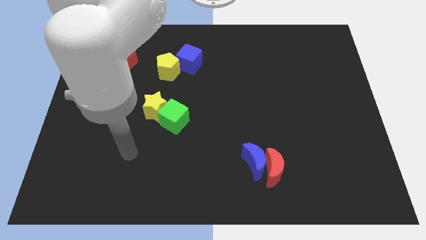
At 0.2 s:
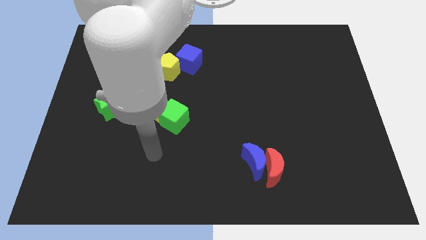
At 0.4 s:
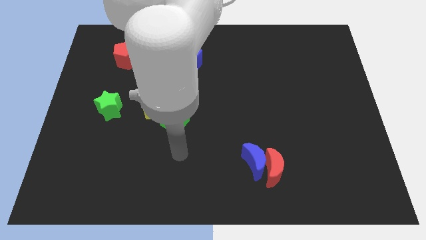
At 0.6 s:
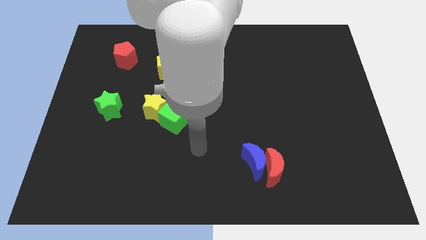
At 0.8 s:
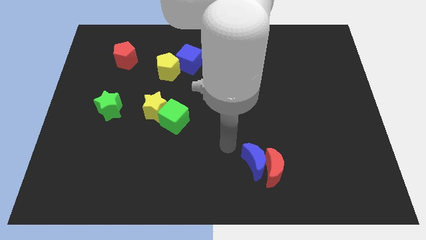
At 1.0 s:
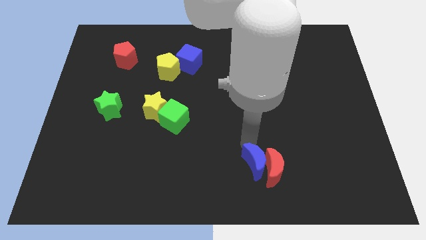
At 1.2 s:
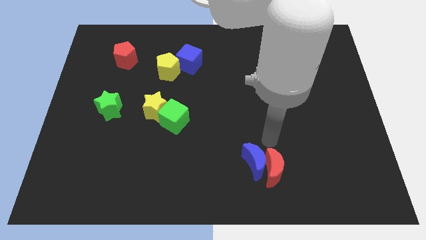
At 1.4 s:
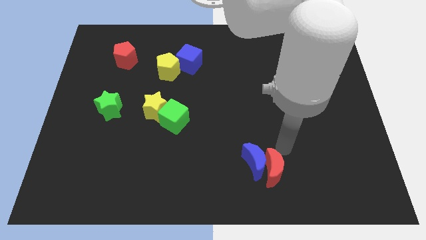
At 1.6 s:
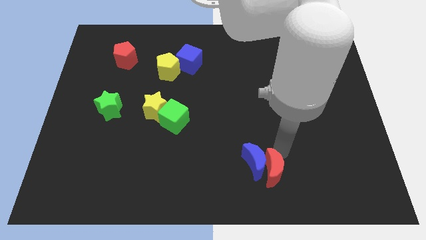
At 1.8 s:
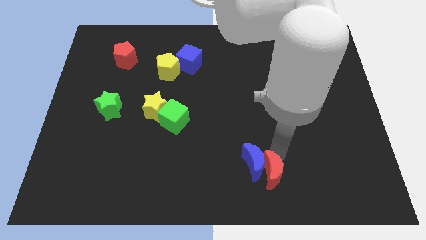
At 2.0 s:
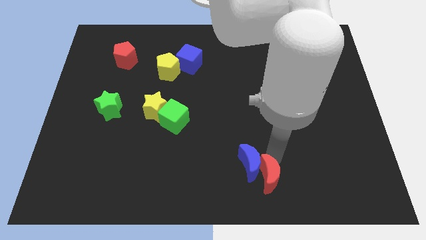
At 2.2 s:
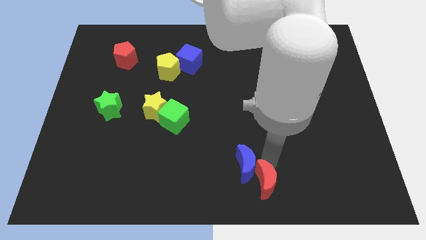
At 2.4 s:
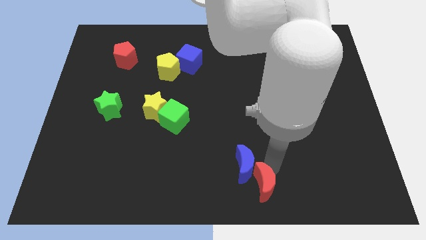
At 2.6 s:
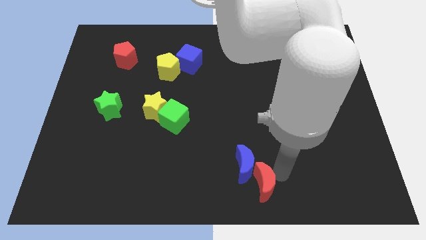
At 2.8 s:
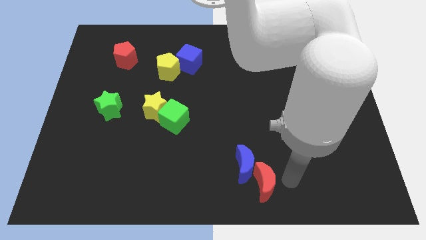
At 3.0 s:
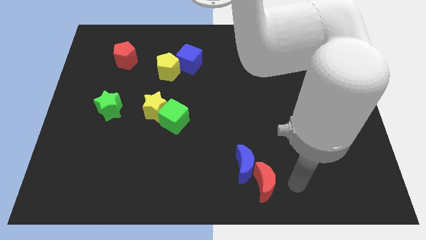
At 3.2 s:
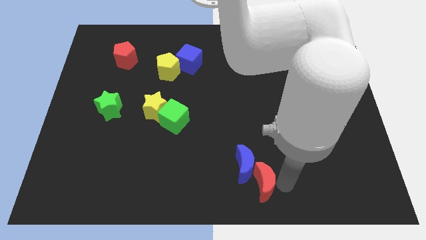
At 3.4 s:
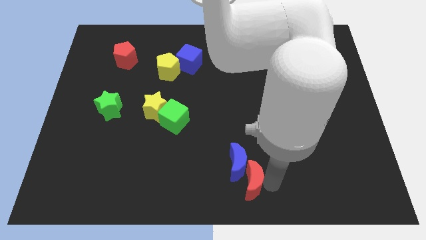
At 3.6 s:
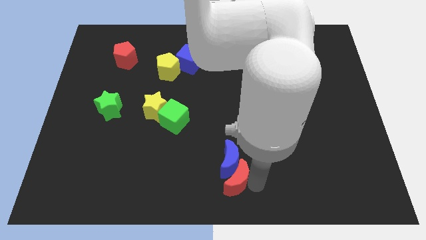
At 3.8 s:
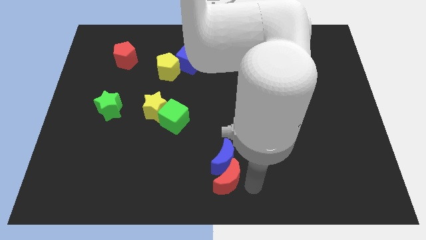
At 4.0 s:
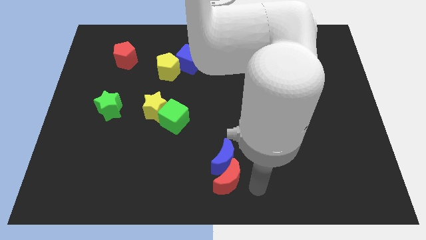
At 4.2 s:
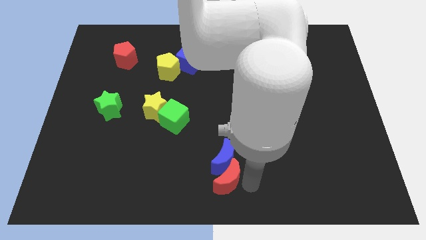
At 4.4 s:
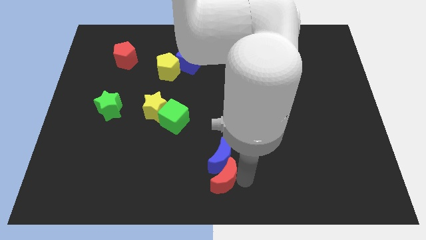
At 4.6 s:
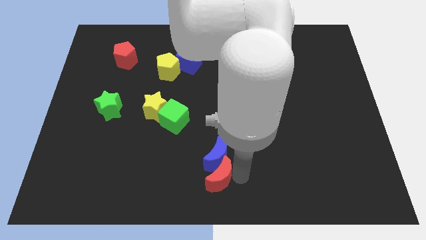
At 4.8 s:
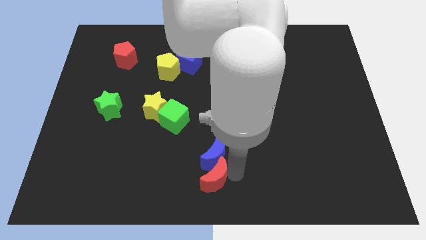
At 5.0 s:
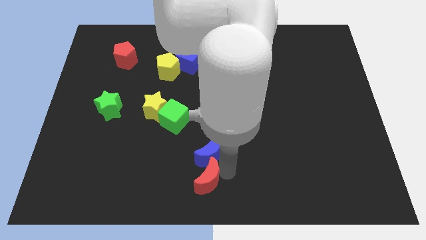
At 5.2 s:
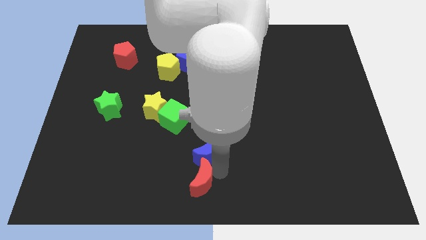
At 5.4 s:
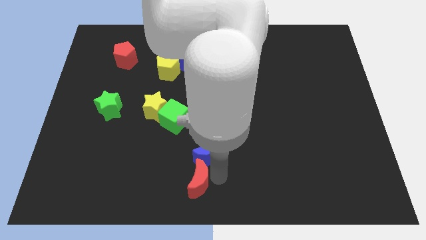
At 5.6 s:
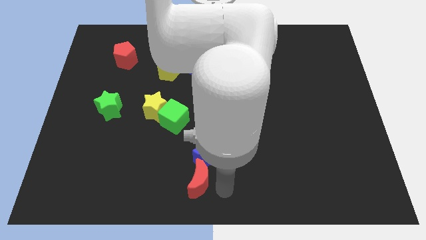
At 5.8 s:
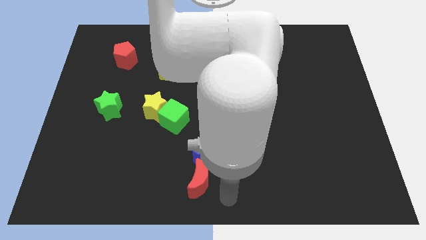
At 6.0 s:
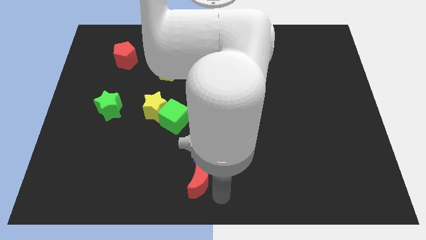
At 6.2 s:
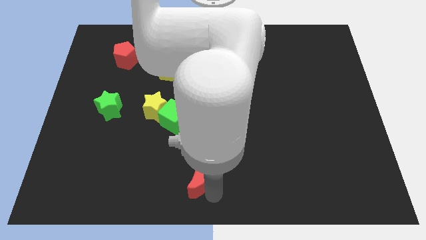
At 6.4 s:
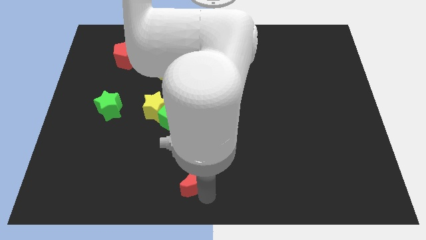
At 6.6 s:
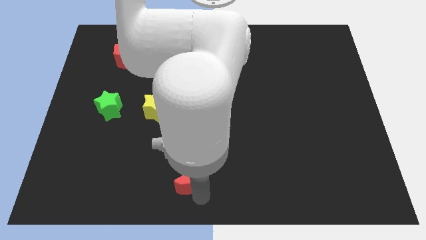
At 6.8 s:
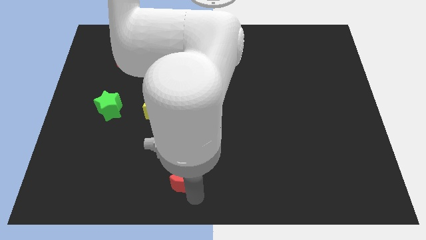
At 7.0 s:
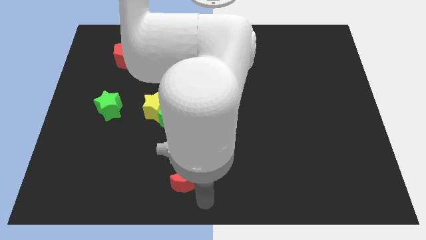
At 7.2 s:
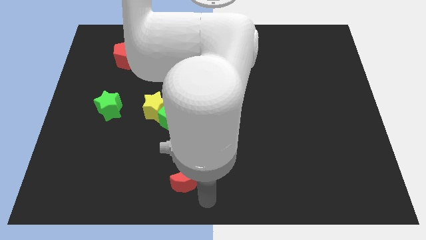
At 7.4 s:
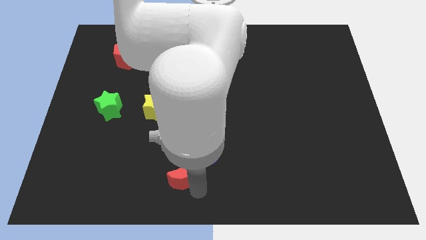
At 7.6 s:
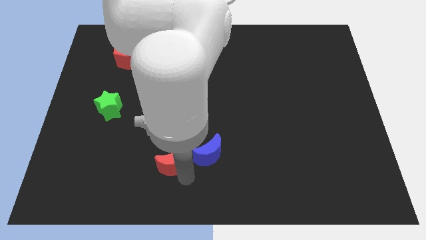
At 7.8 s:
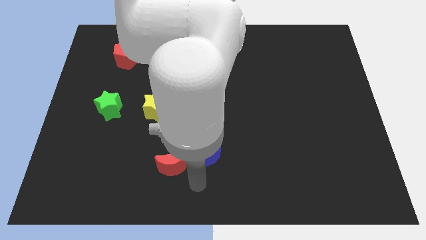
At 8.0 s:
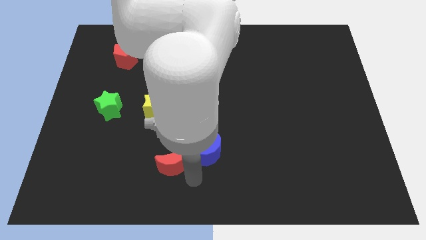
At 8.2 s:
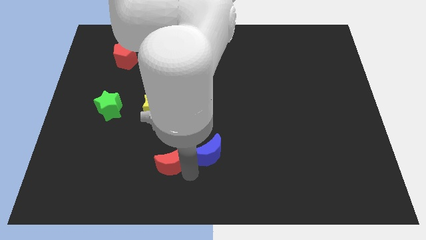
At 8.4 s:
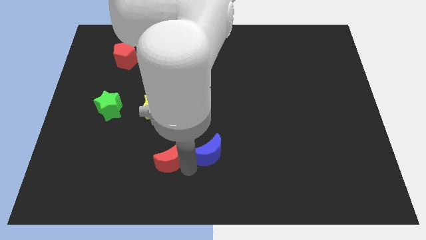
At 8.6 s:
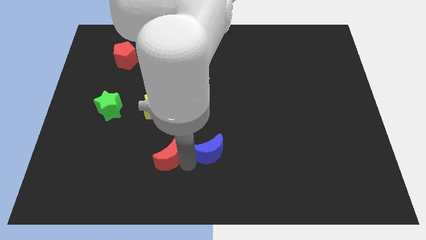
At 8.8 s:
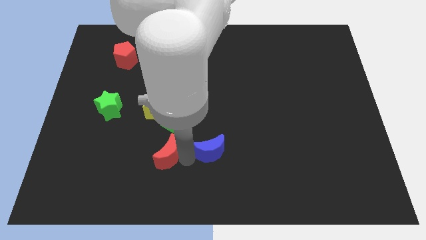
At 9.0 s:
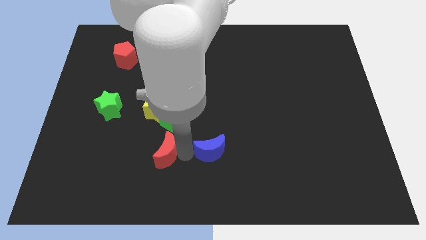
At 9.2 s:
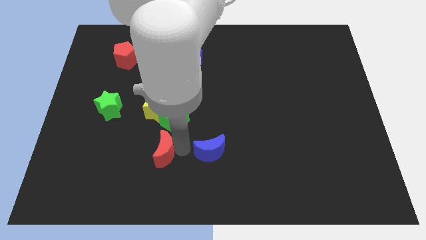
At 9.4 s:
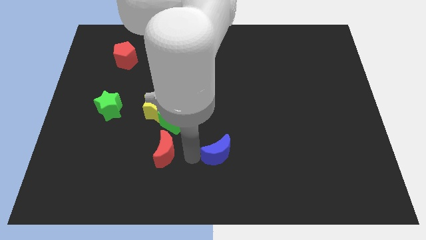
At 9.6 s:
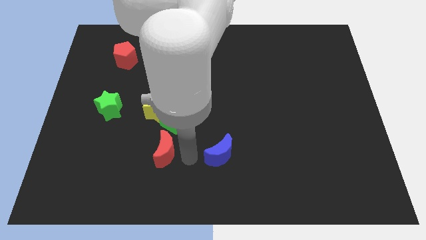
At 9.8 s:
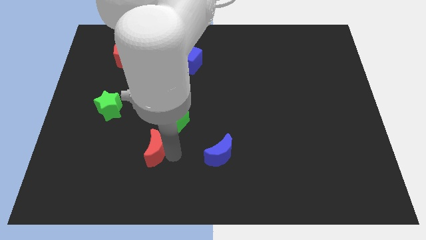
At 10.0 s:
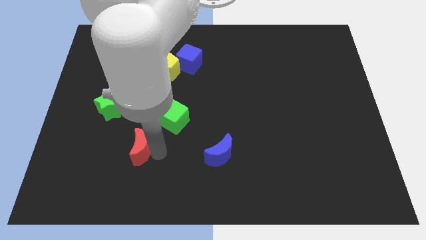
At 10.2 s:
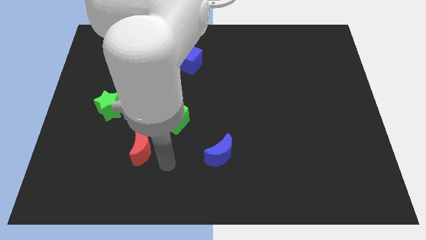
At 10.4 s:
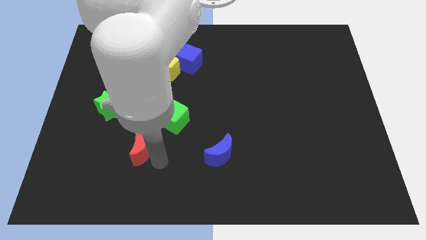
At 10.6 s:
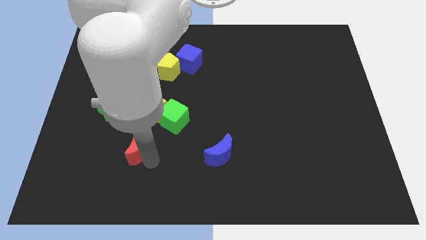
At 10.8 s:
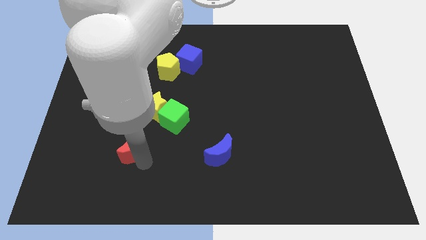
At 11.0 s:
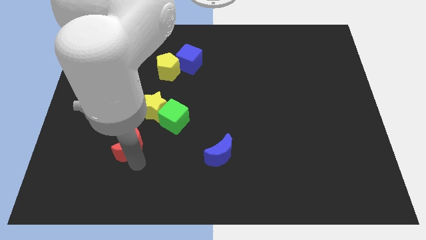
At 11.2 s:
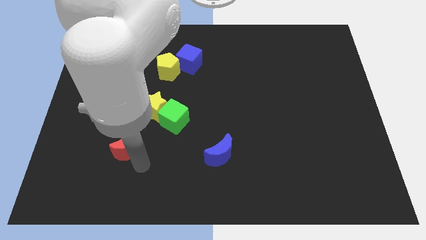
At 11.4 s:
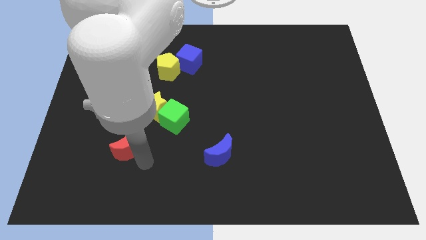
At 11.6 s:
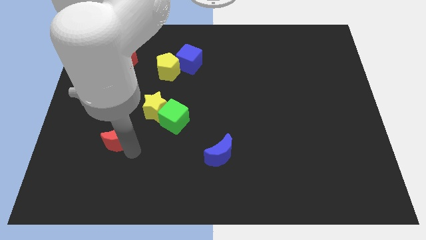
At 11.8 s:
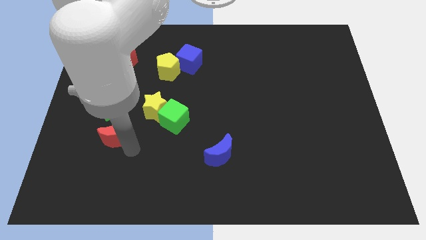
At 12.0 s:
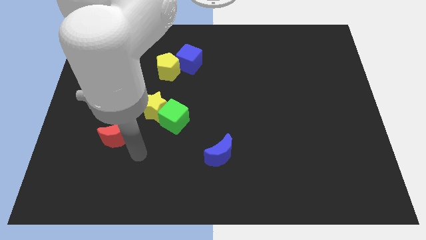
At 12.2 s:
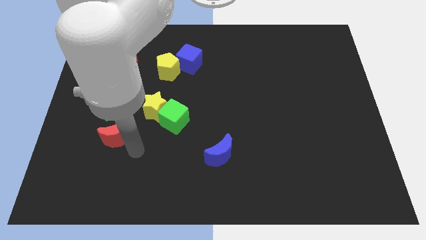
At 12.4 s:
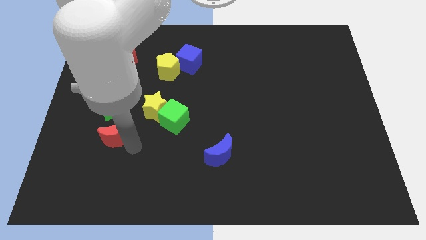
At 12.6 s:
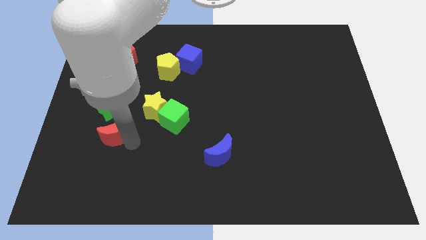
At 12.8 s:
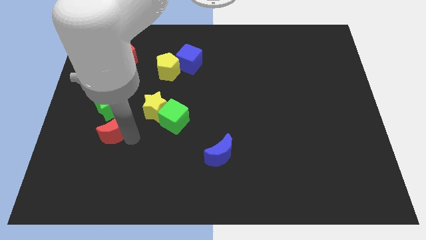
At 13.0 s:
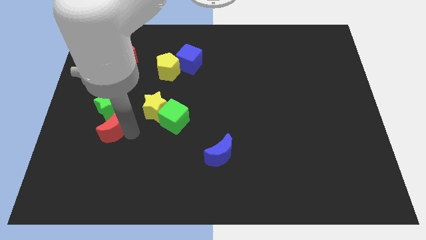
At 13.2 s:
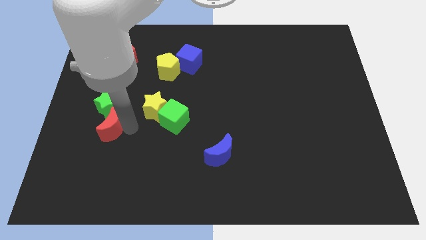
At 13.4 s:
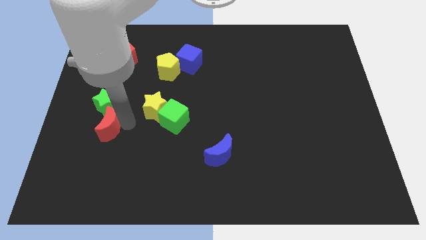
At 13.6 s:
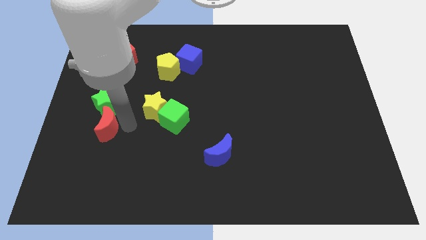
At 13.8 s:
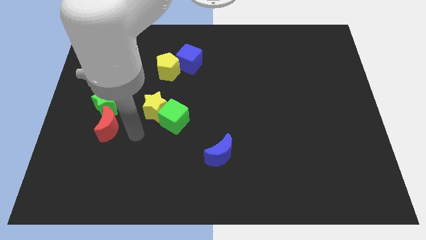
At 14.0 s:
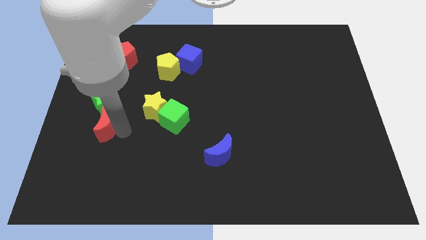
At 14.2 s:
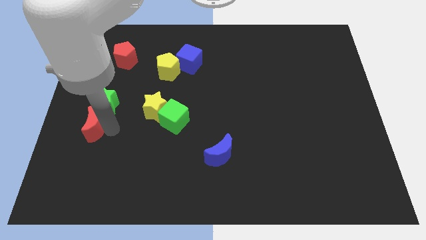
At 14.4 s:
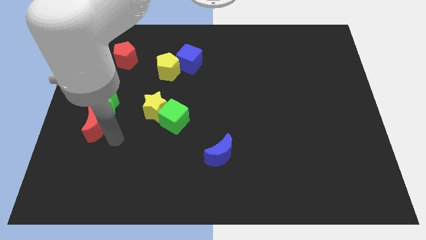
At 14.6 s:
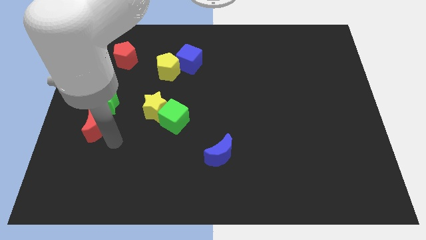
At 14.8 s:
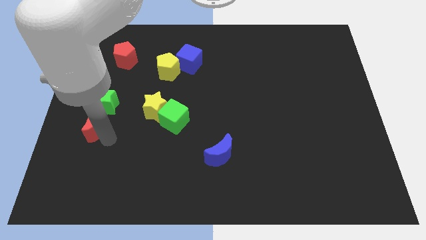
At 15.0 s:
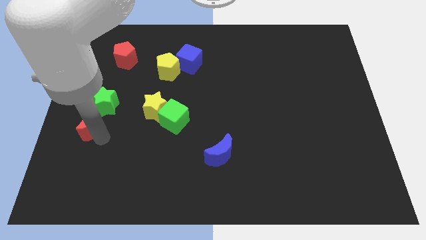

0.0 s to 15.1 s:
push the red moon to the left side
